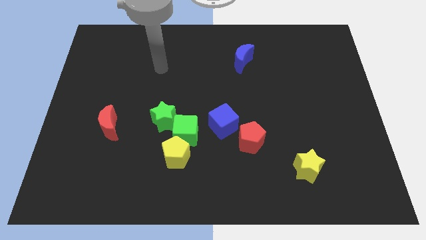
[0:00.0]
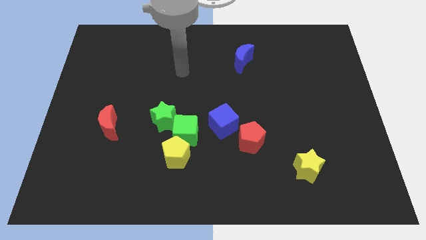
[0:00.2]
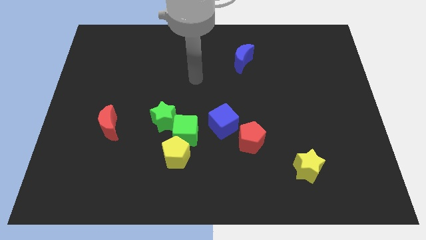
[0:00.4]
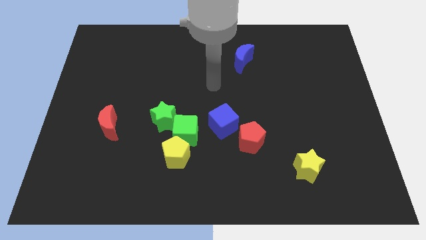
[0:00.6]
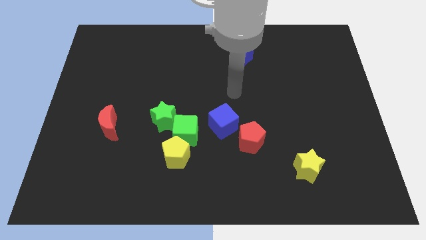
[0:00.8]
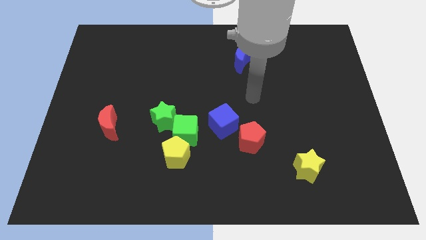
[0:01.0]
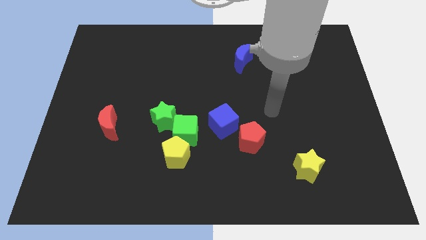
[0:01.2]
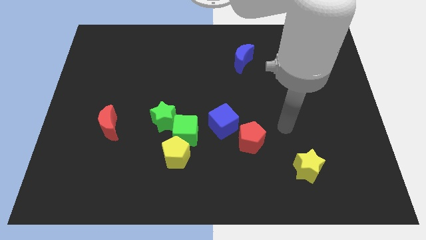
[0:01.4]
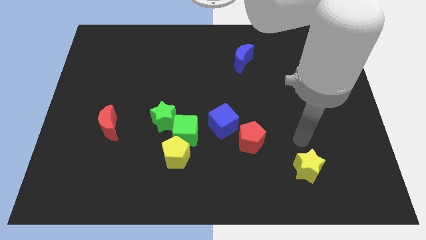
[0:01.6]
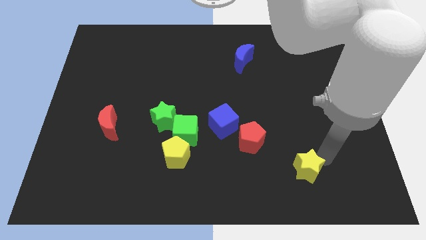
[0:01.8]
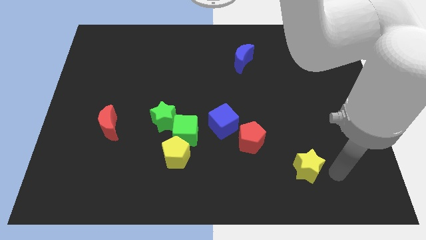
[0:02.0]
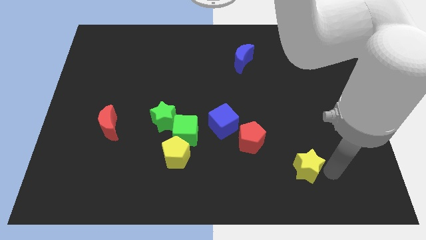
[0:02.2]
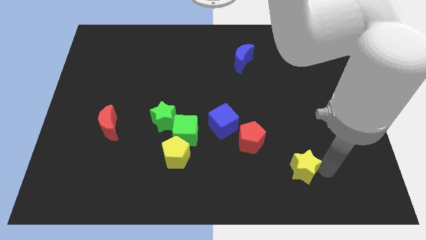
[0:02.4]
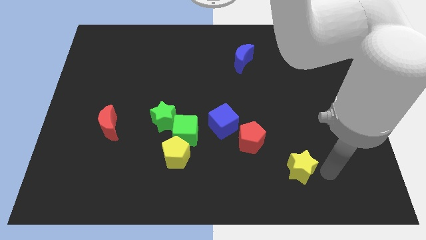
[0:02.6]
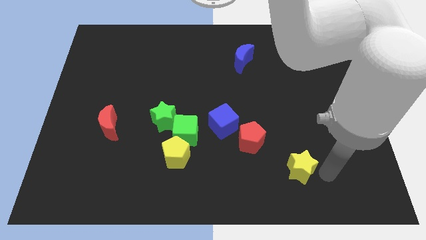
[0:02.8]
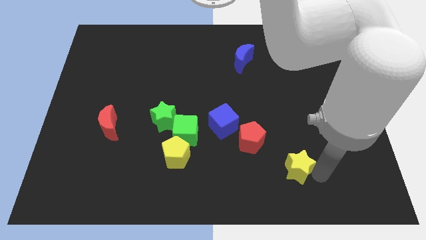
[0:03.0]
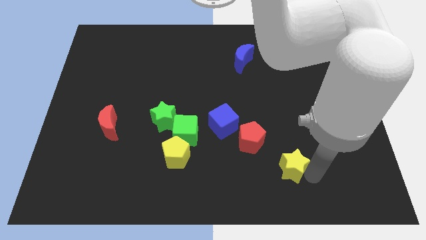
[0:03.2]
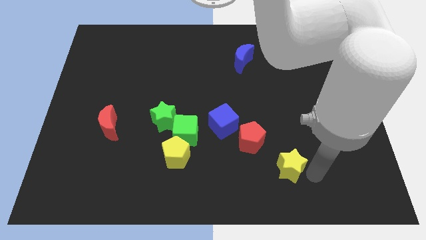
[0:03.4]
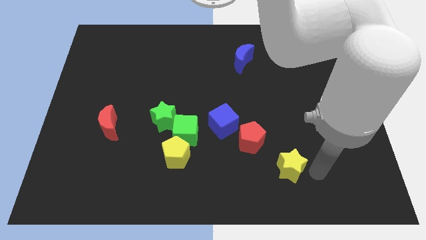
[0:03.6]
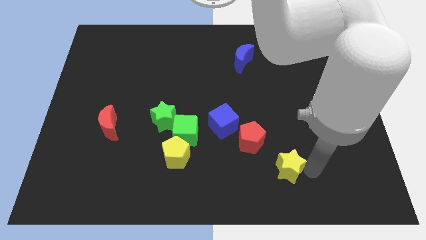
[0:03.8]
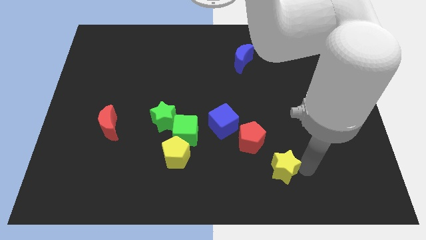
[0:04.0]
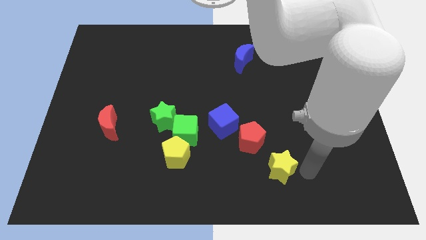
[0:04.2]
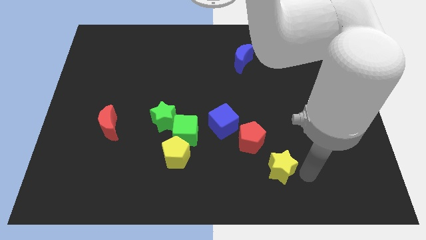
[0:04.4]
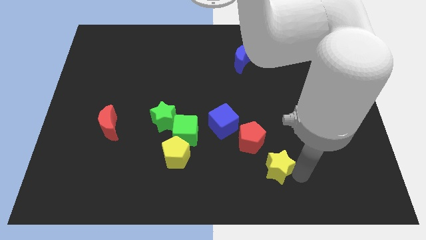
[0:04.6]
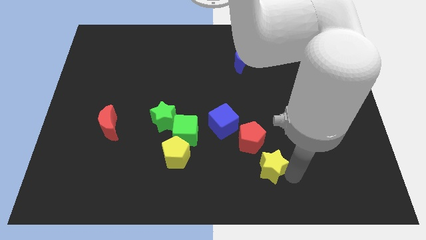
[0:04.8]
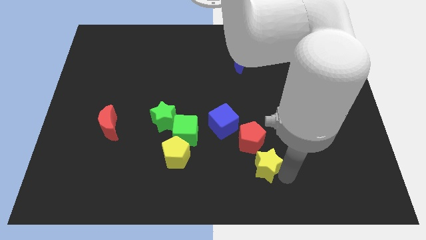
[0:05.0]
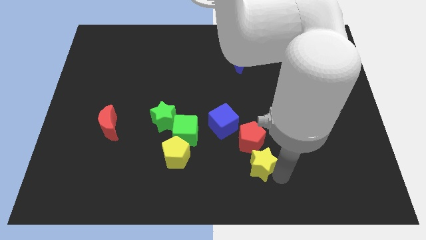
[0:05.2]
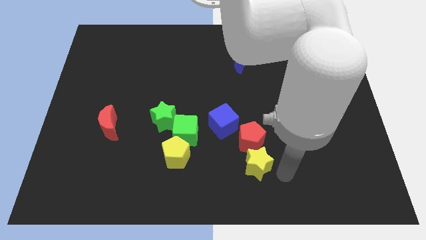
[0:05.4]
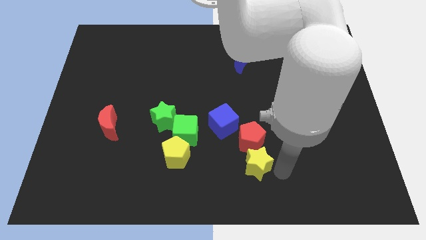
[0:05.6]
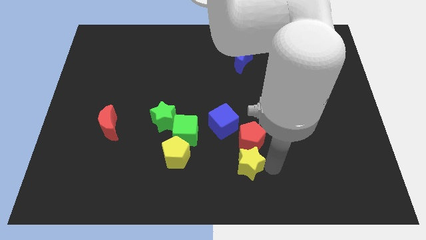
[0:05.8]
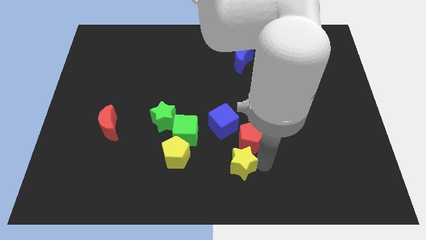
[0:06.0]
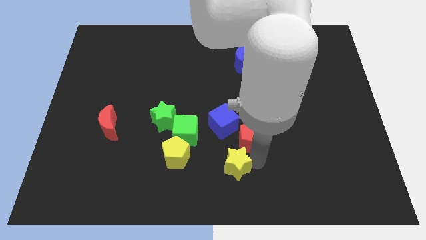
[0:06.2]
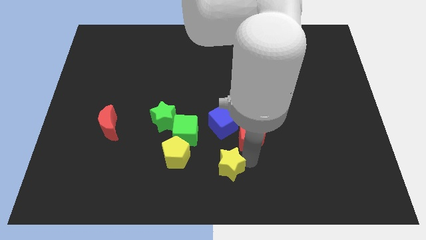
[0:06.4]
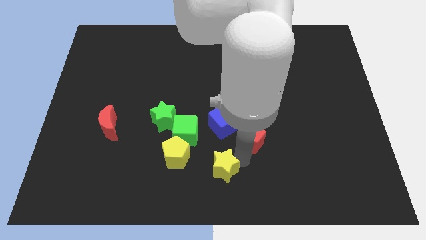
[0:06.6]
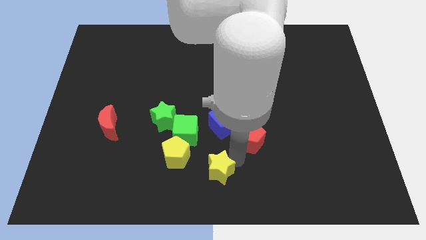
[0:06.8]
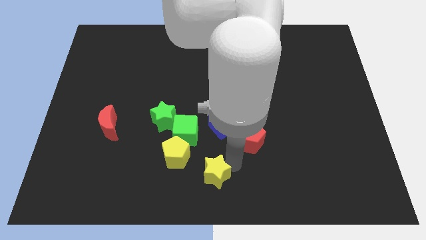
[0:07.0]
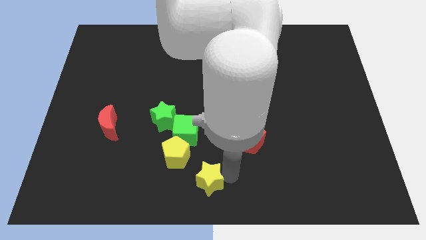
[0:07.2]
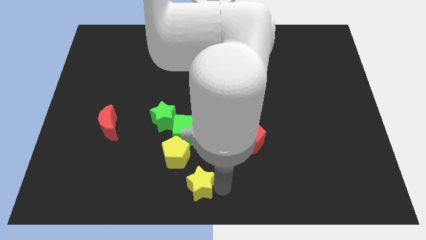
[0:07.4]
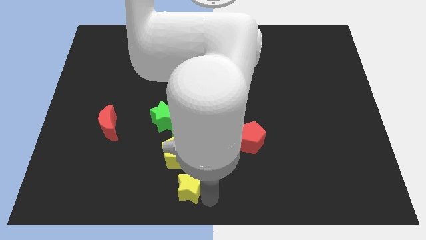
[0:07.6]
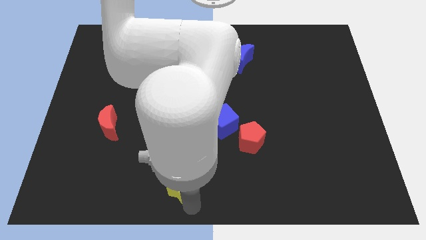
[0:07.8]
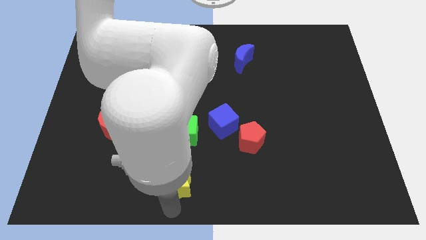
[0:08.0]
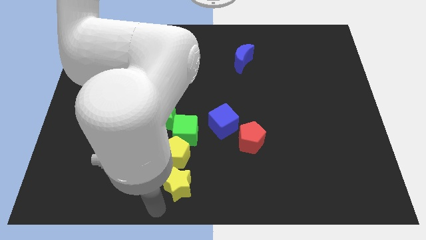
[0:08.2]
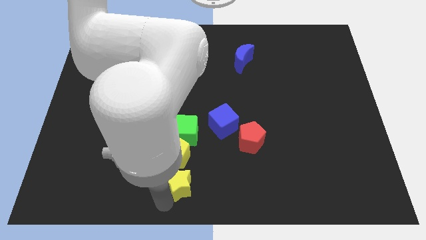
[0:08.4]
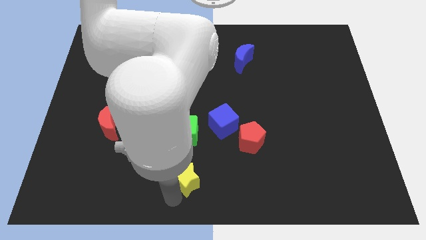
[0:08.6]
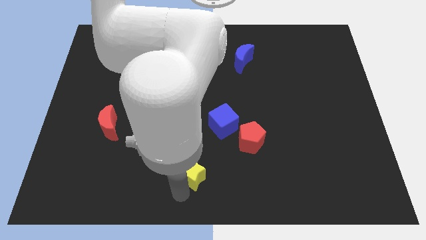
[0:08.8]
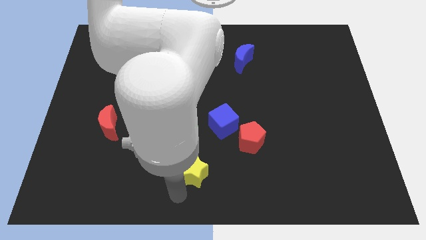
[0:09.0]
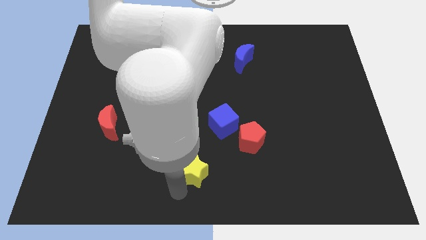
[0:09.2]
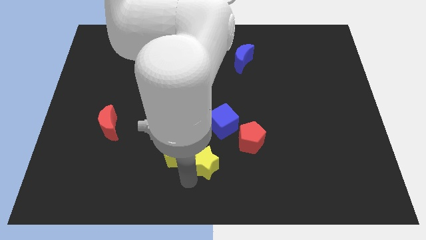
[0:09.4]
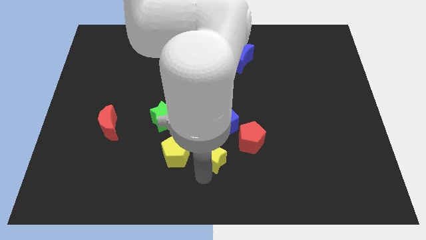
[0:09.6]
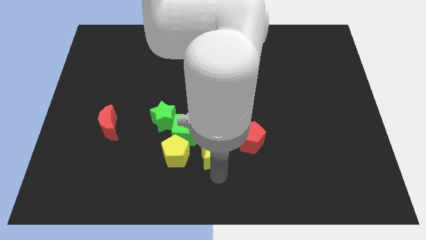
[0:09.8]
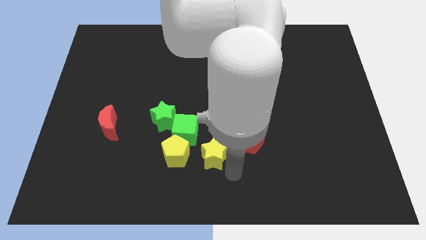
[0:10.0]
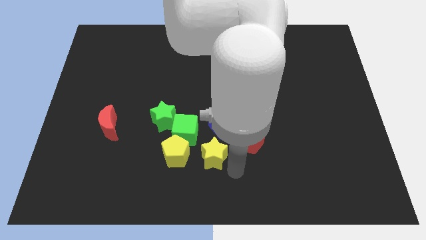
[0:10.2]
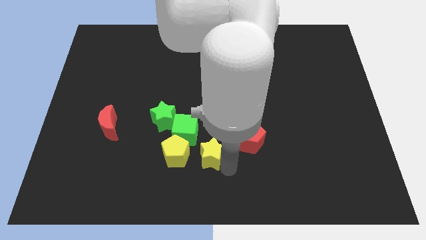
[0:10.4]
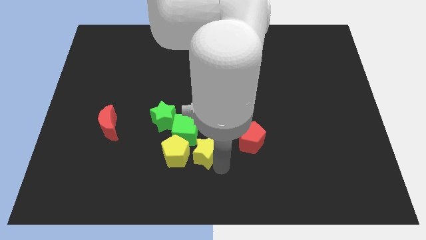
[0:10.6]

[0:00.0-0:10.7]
put the yellow star to the bottom right of the green star

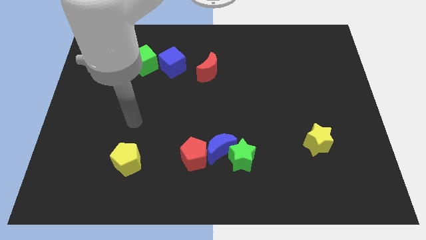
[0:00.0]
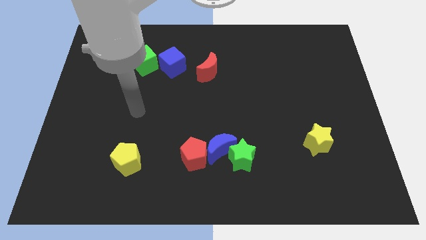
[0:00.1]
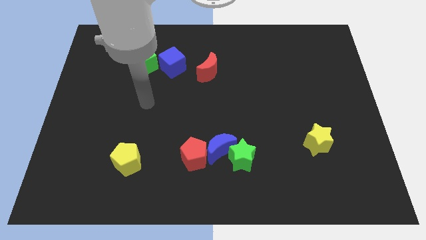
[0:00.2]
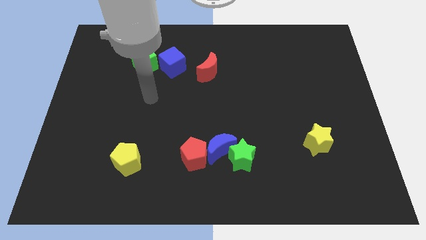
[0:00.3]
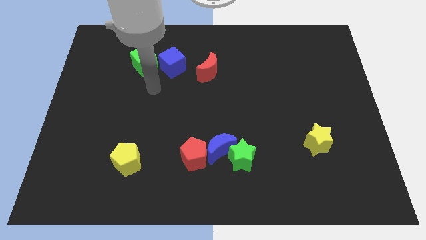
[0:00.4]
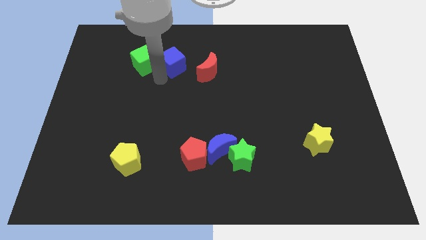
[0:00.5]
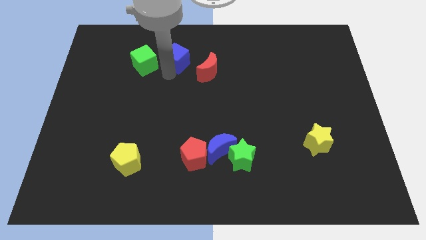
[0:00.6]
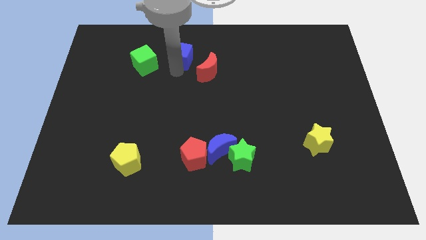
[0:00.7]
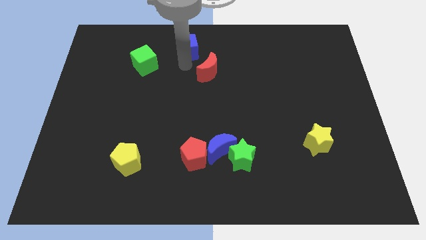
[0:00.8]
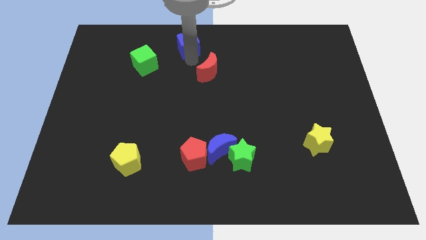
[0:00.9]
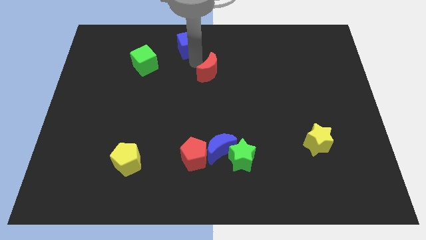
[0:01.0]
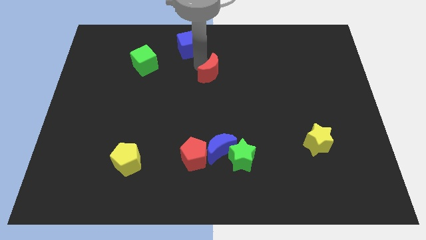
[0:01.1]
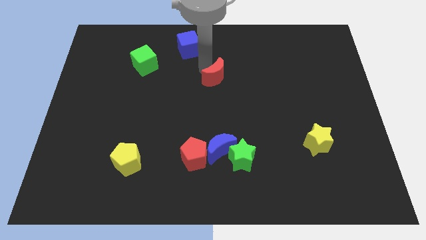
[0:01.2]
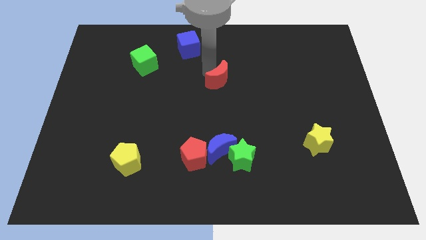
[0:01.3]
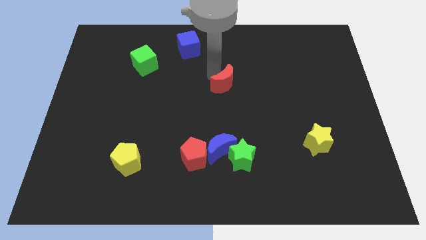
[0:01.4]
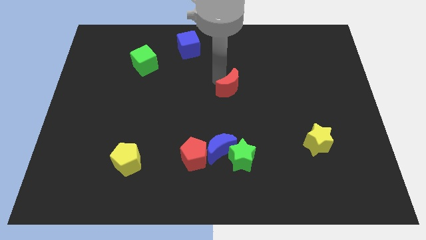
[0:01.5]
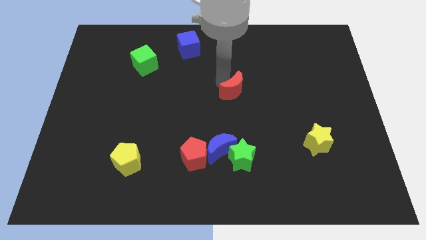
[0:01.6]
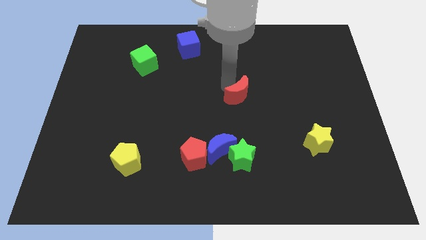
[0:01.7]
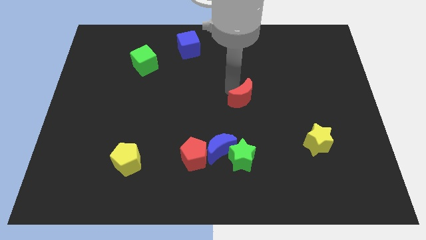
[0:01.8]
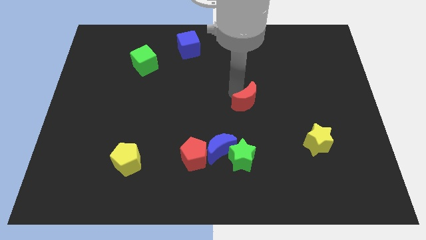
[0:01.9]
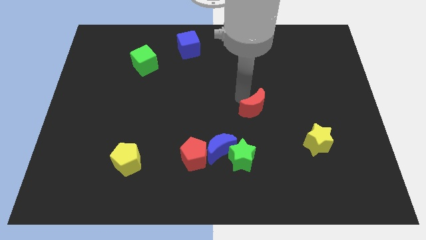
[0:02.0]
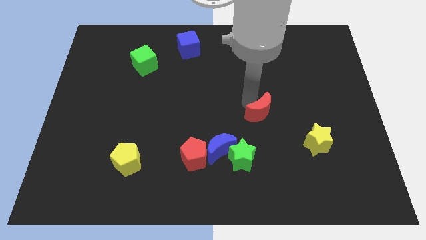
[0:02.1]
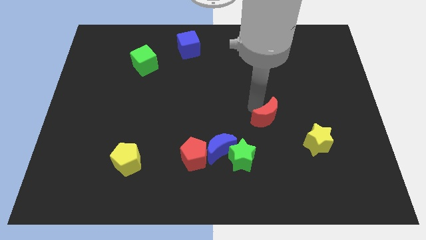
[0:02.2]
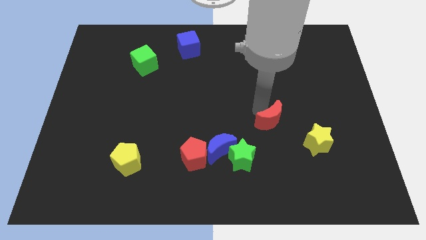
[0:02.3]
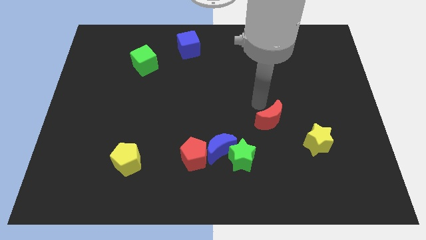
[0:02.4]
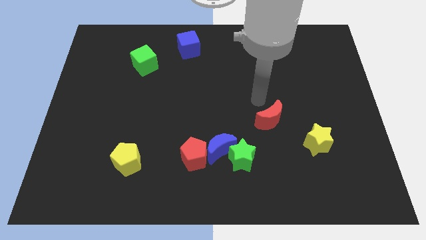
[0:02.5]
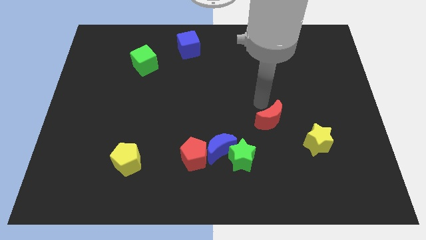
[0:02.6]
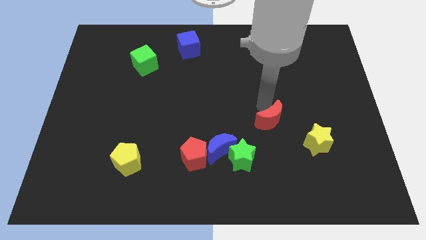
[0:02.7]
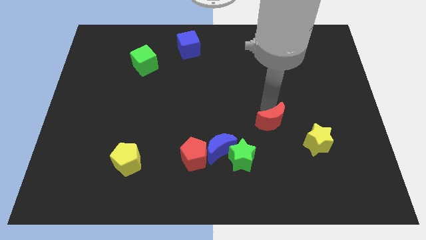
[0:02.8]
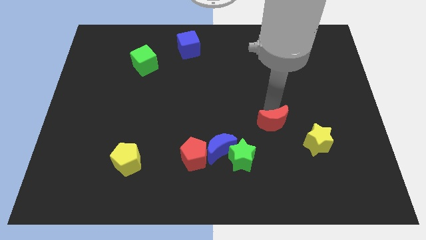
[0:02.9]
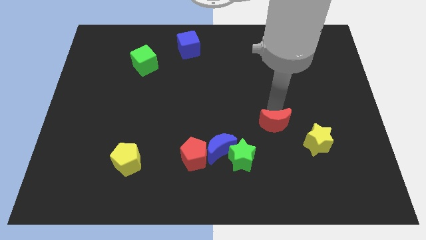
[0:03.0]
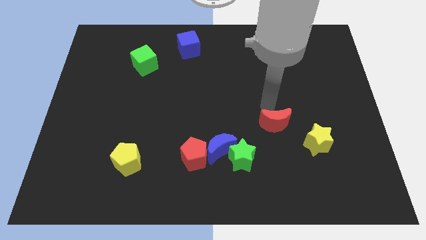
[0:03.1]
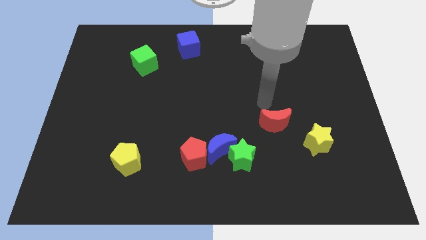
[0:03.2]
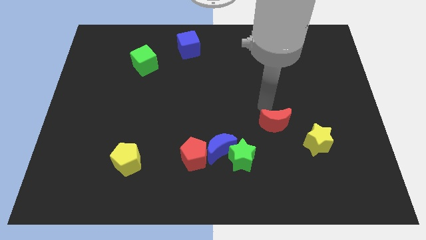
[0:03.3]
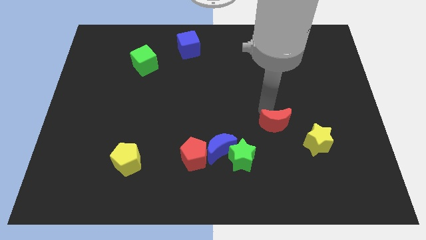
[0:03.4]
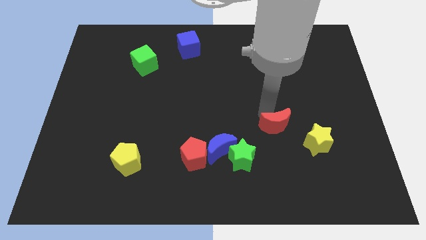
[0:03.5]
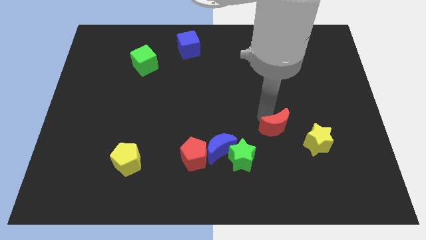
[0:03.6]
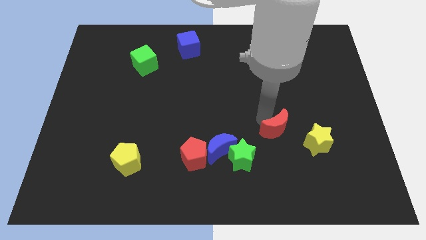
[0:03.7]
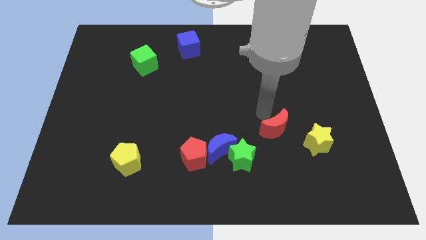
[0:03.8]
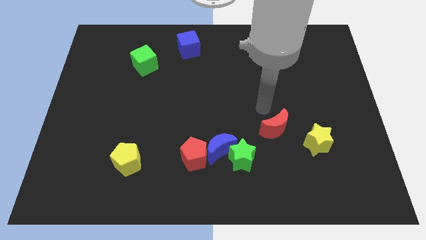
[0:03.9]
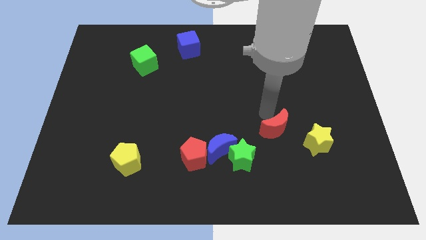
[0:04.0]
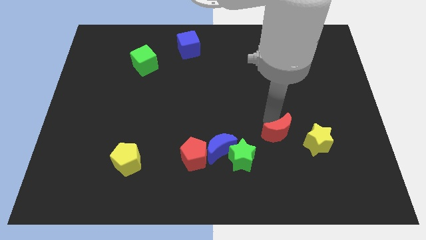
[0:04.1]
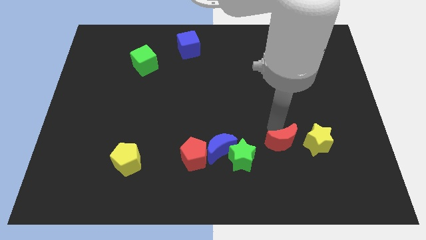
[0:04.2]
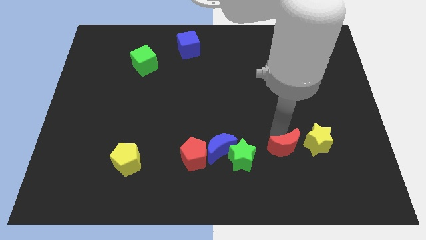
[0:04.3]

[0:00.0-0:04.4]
move the red moon to the bottom left of the yellow star
